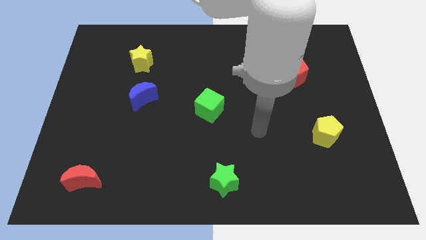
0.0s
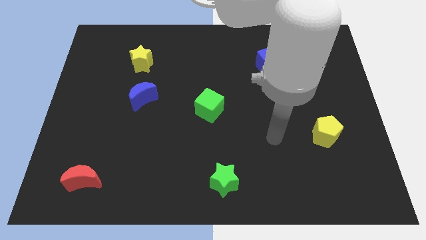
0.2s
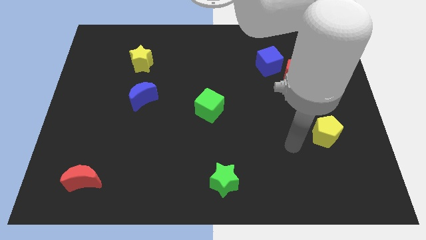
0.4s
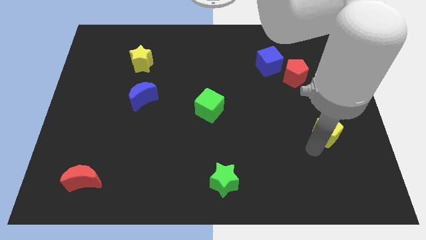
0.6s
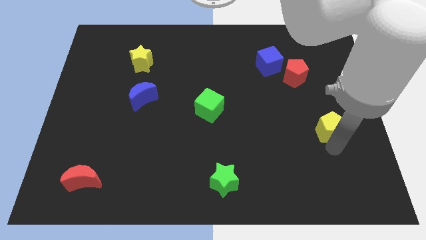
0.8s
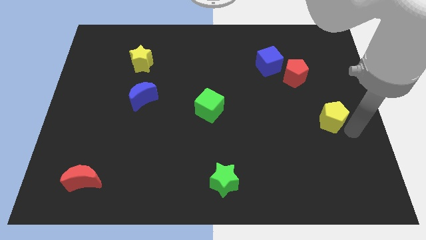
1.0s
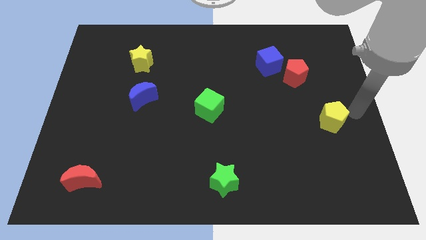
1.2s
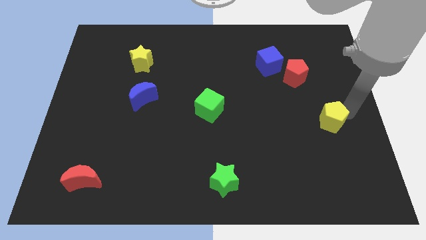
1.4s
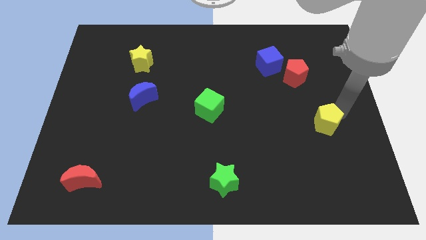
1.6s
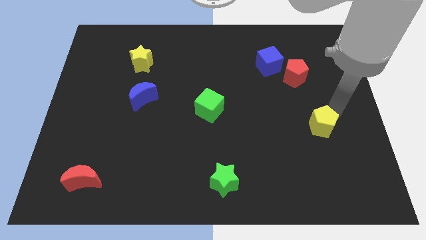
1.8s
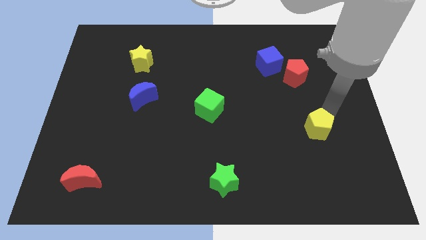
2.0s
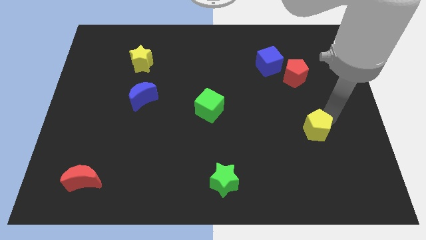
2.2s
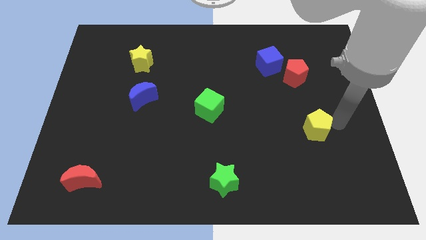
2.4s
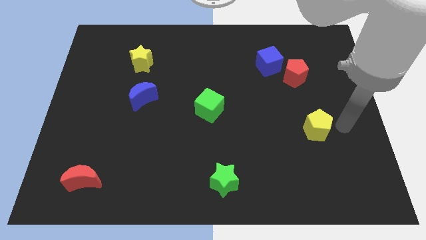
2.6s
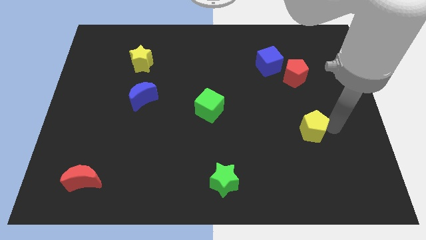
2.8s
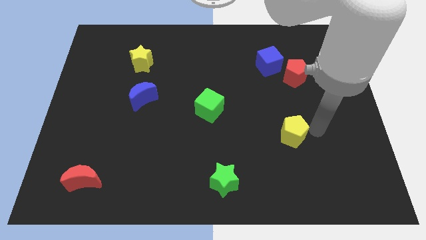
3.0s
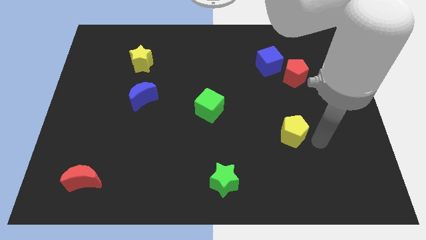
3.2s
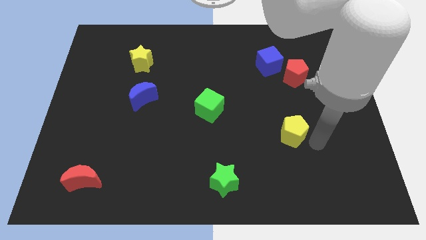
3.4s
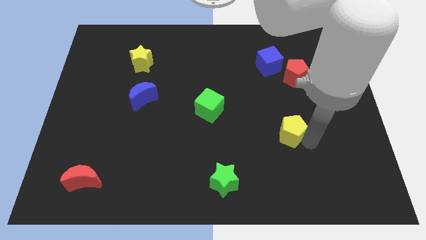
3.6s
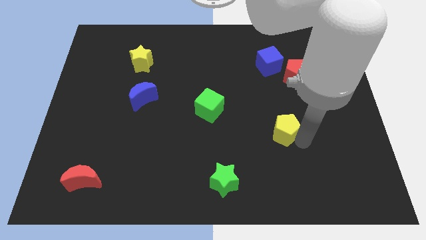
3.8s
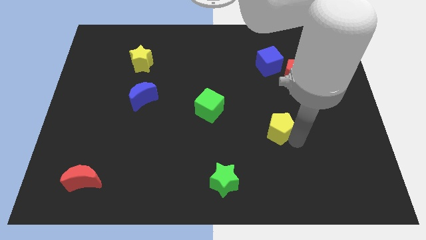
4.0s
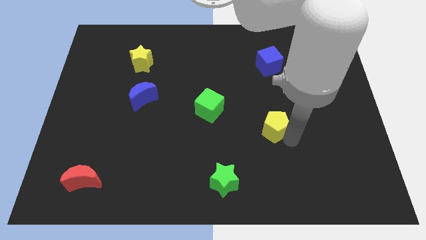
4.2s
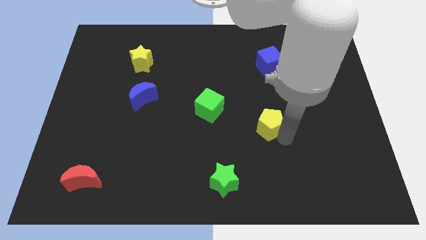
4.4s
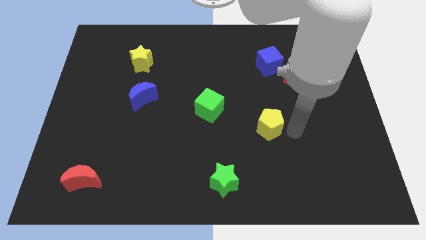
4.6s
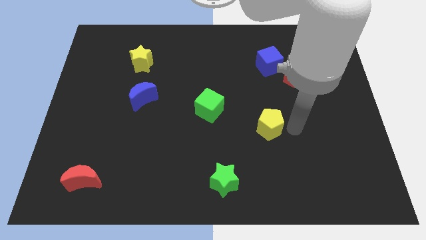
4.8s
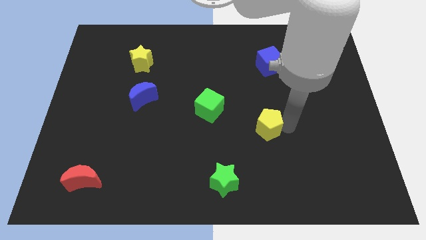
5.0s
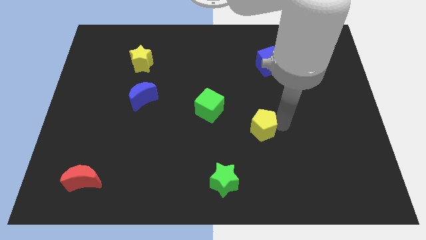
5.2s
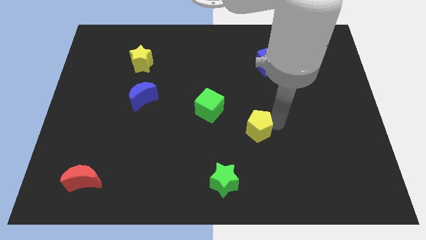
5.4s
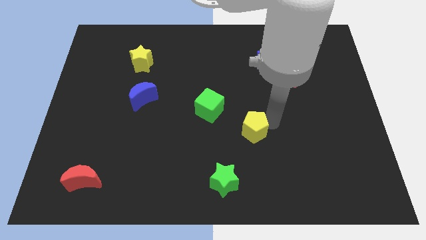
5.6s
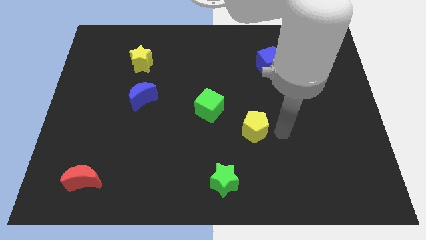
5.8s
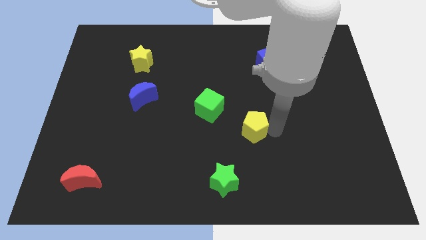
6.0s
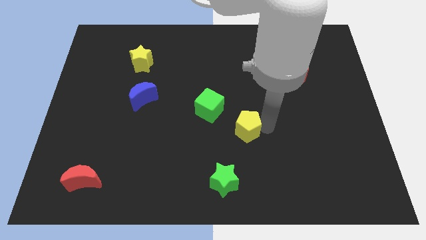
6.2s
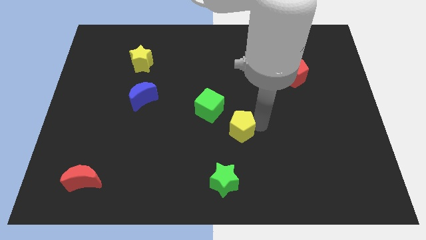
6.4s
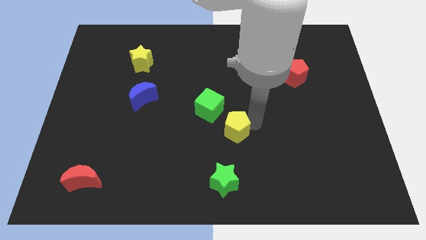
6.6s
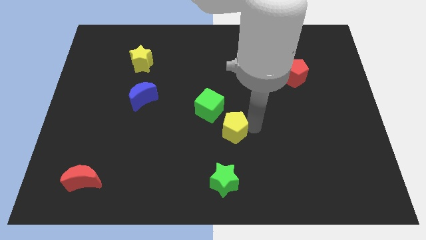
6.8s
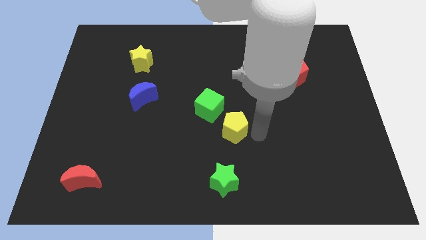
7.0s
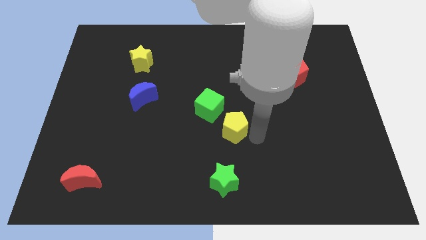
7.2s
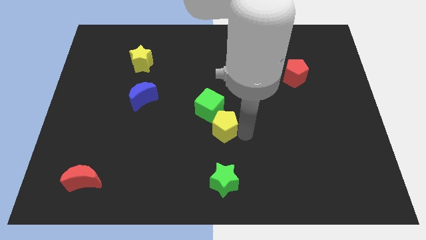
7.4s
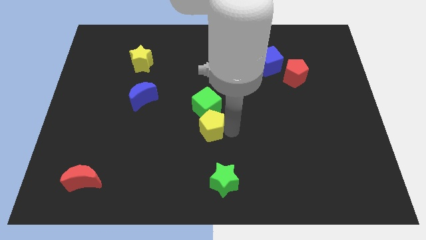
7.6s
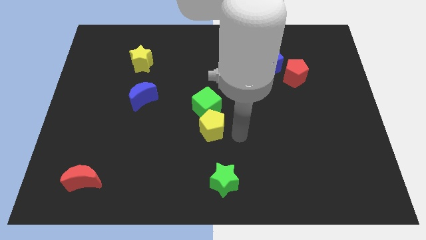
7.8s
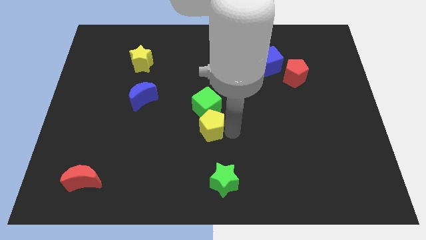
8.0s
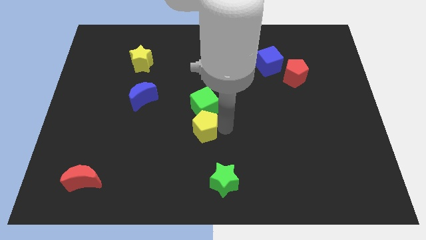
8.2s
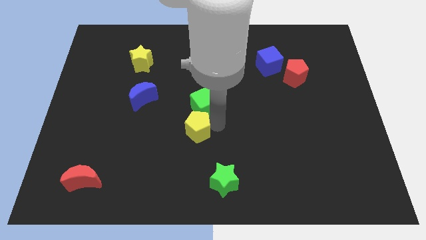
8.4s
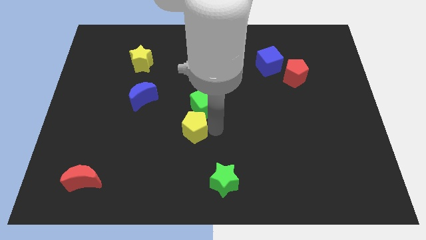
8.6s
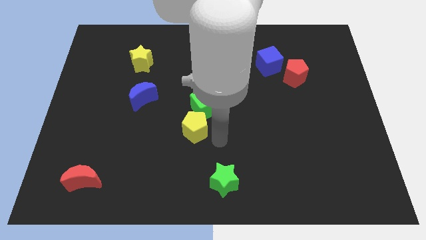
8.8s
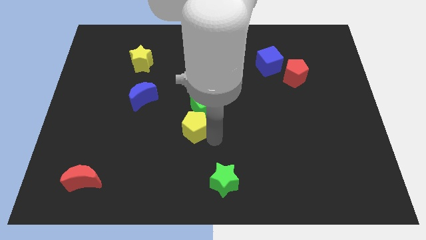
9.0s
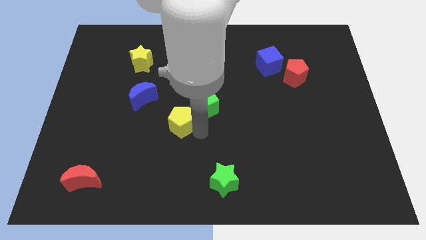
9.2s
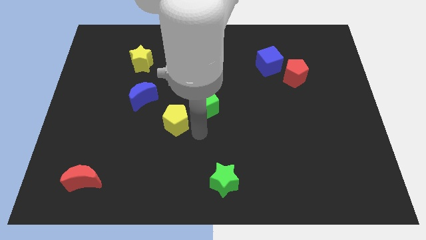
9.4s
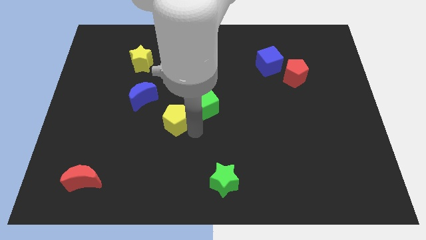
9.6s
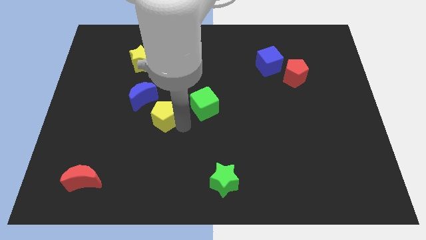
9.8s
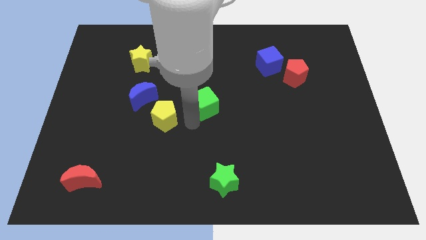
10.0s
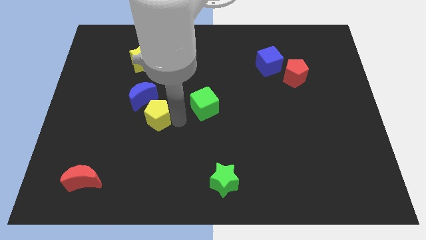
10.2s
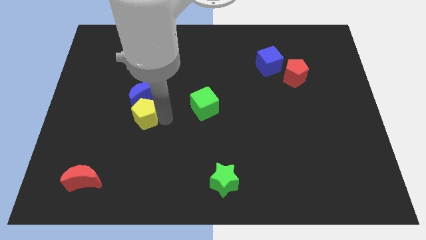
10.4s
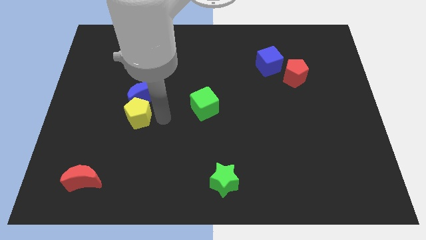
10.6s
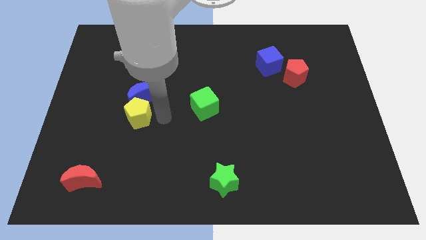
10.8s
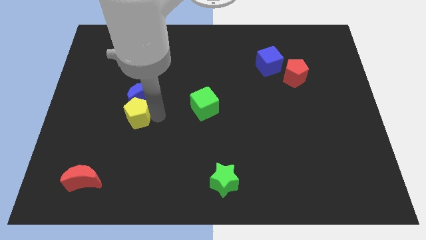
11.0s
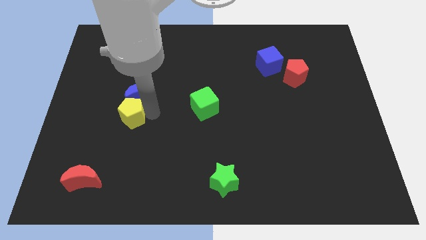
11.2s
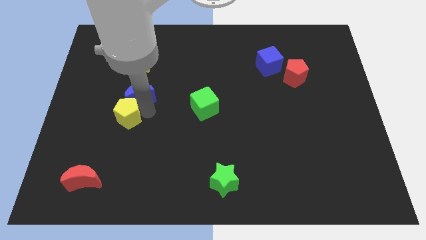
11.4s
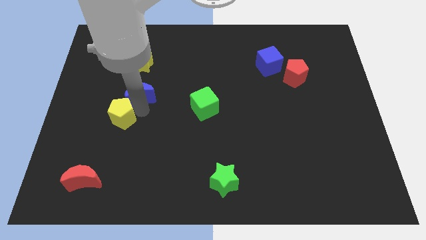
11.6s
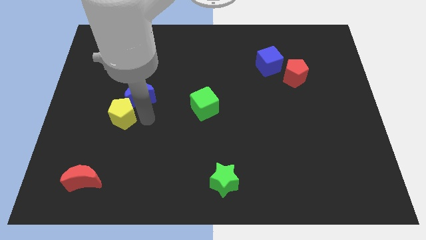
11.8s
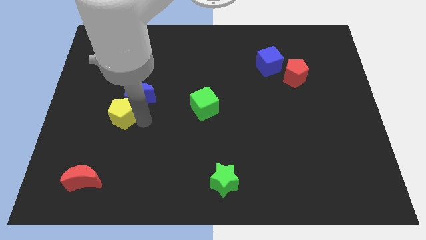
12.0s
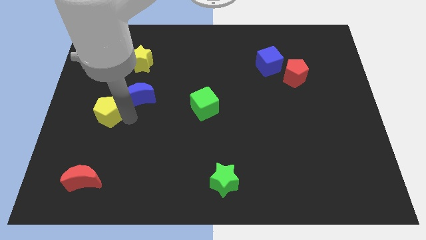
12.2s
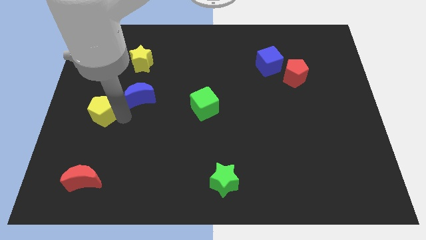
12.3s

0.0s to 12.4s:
put the yellow pentagon to the left side of the board

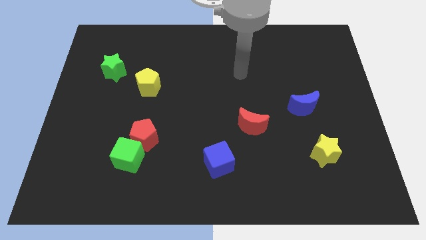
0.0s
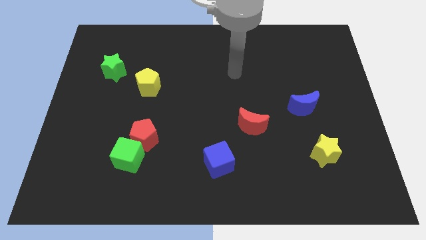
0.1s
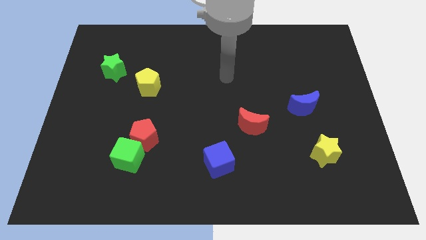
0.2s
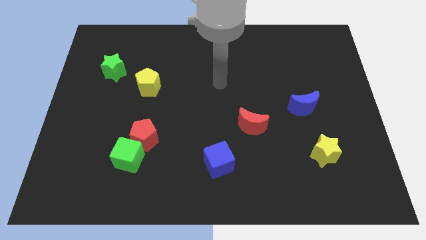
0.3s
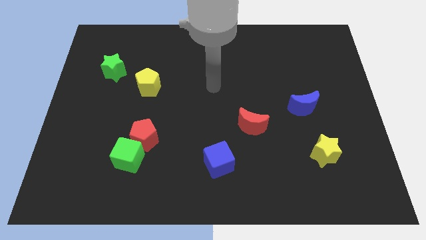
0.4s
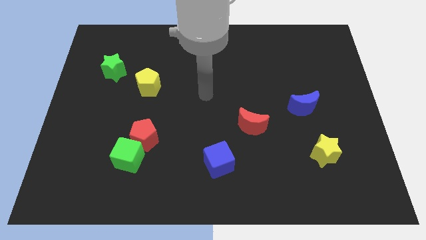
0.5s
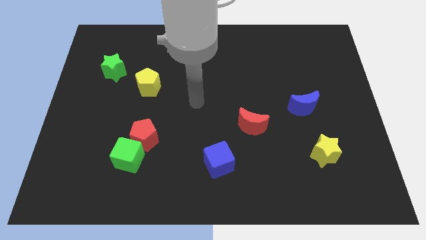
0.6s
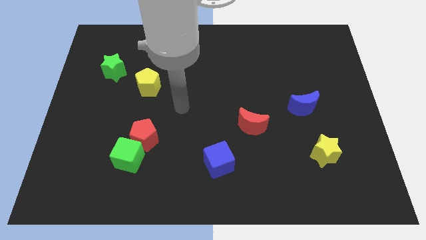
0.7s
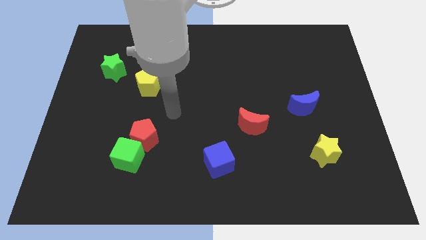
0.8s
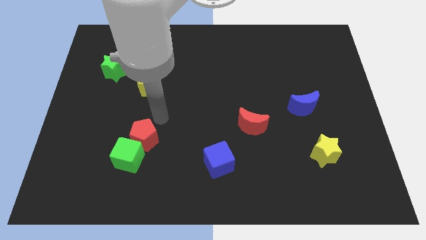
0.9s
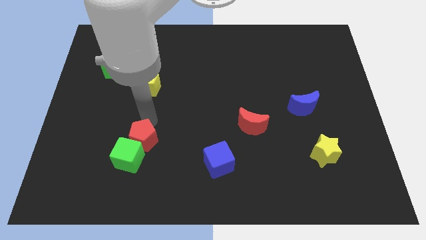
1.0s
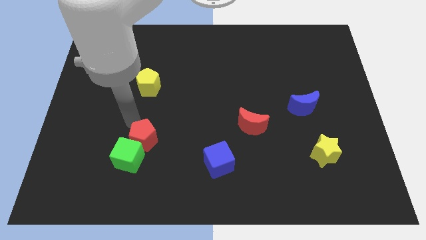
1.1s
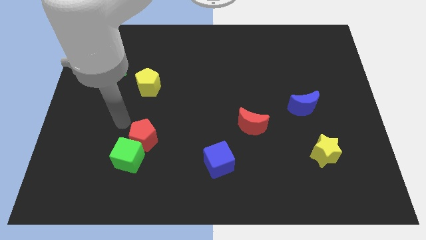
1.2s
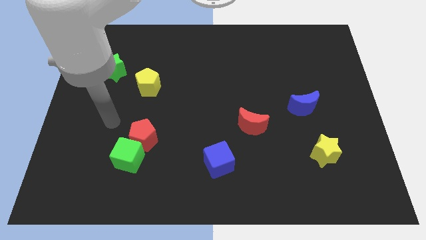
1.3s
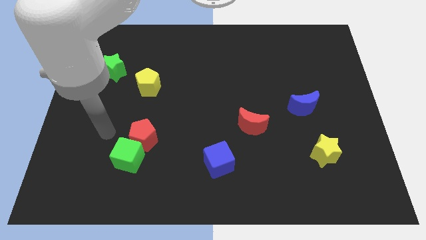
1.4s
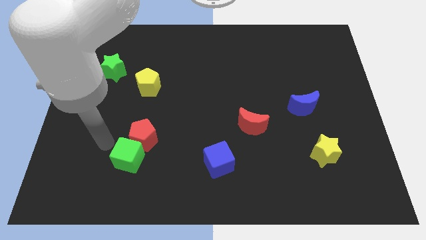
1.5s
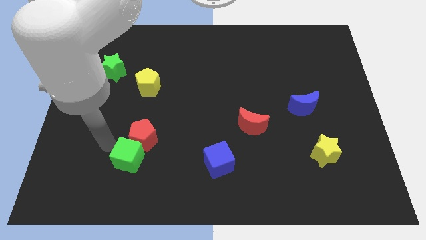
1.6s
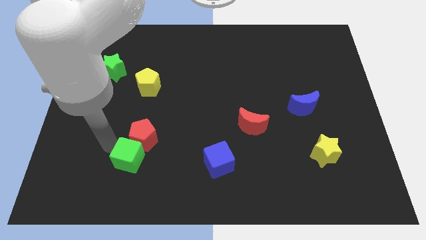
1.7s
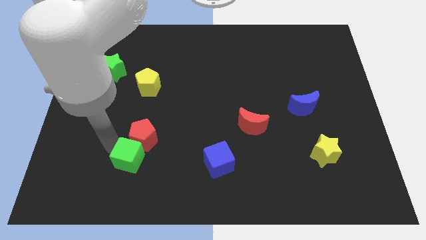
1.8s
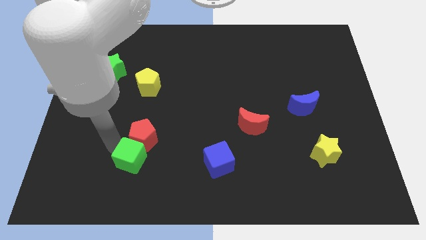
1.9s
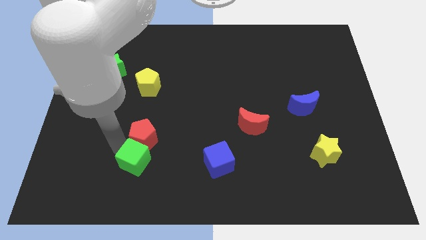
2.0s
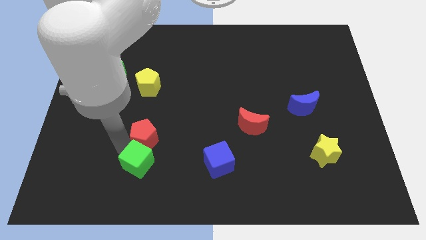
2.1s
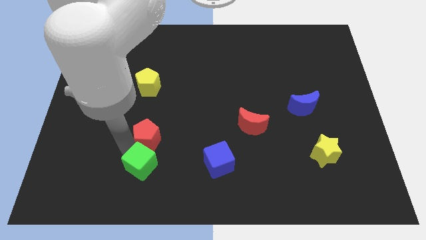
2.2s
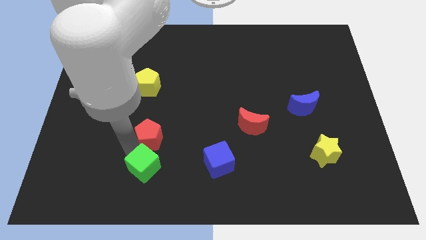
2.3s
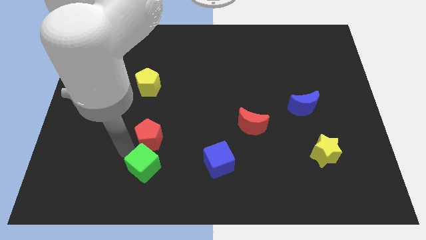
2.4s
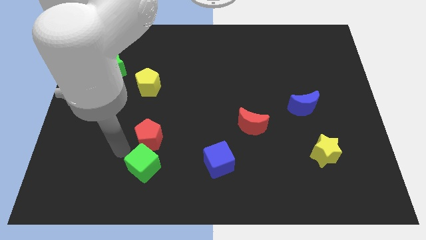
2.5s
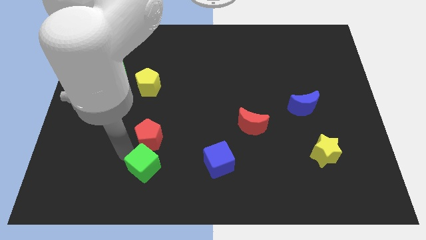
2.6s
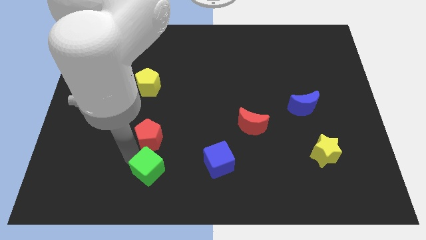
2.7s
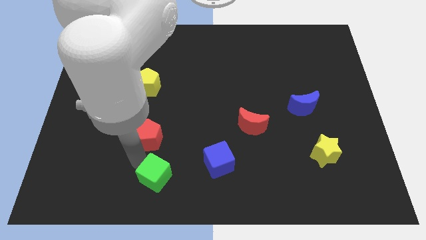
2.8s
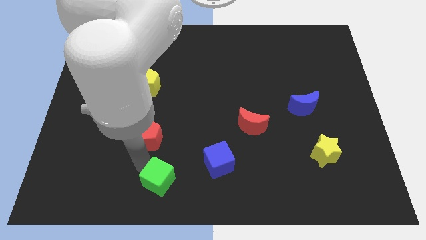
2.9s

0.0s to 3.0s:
push the green cube to the bottom
